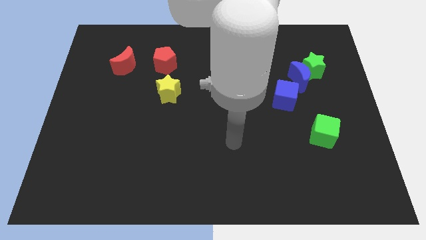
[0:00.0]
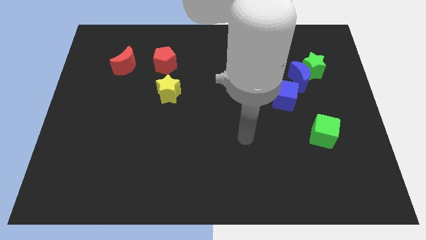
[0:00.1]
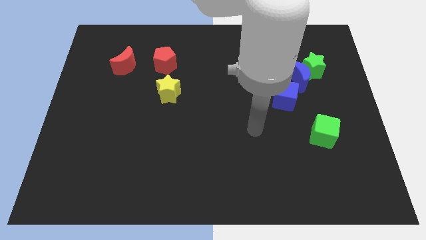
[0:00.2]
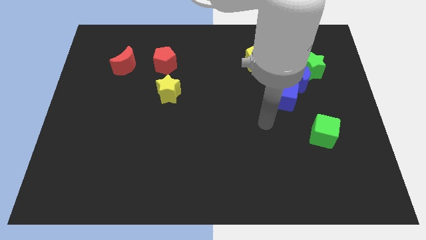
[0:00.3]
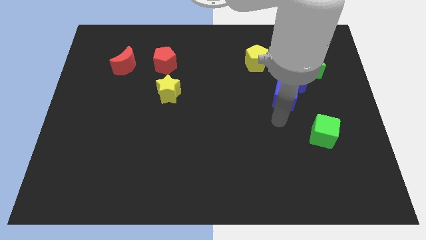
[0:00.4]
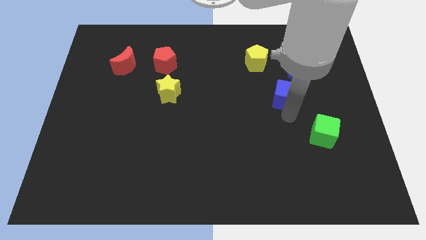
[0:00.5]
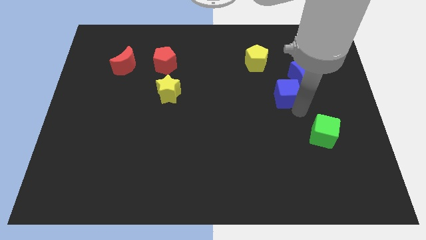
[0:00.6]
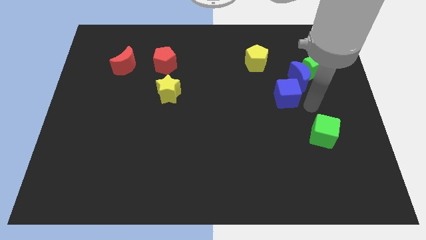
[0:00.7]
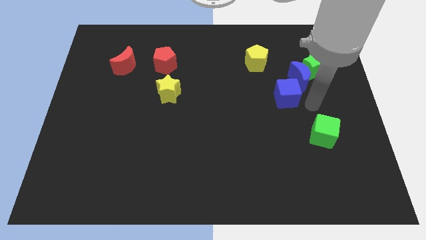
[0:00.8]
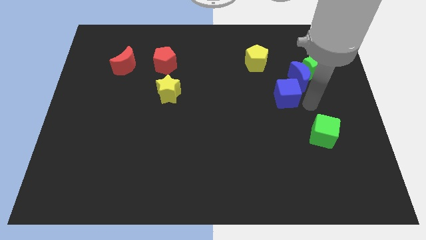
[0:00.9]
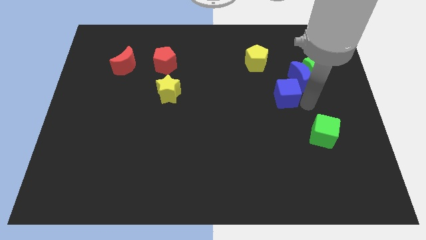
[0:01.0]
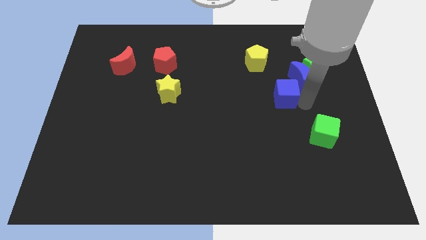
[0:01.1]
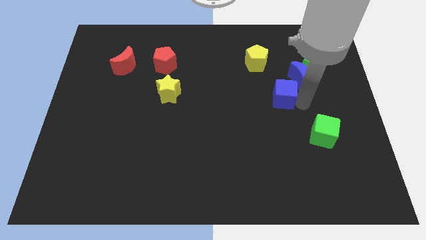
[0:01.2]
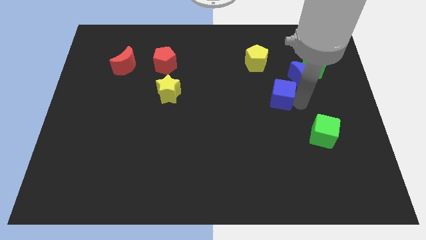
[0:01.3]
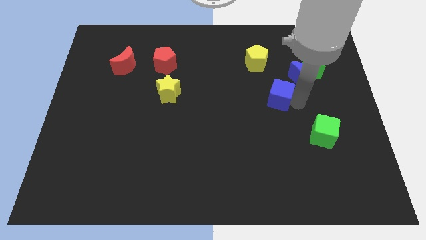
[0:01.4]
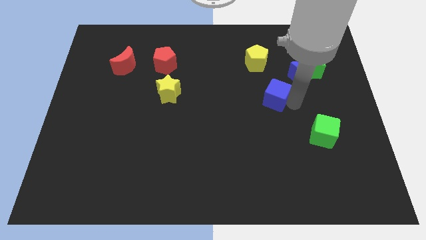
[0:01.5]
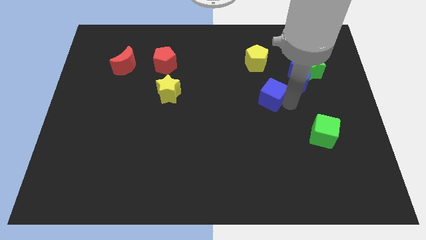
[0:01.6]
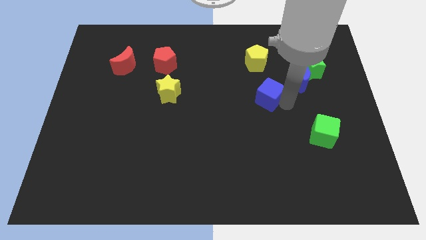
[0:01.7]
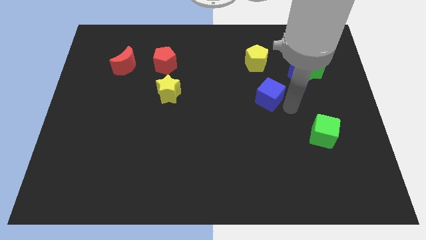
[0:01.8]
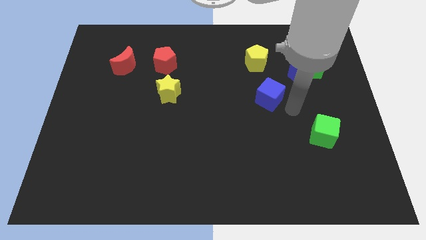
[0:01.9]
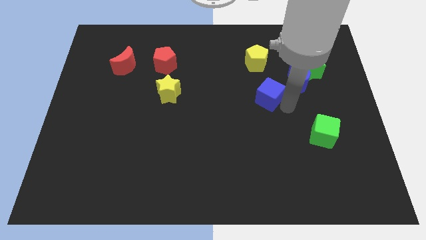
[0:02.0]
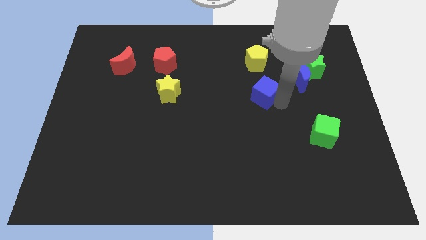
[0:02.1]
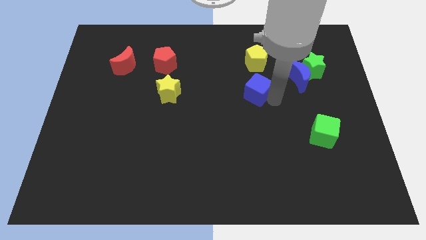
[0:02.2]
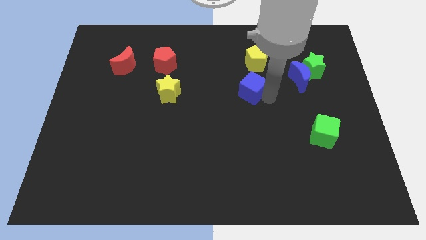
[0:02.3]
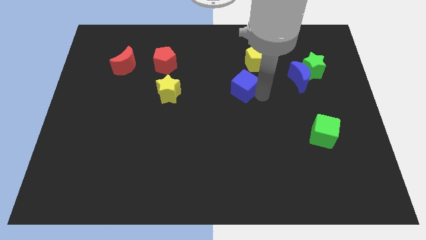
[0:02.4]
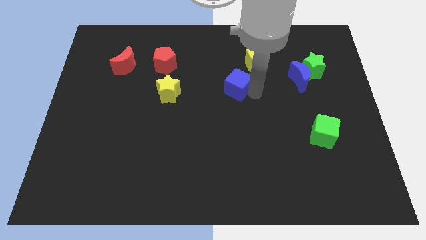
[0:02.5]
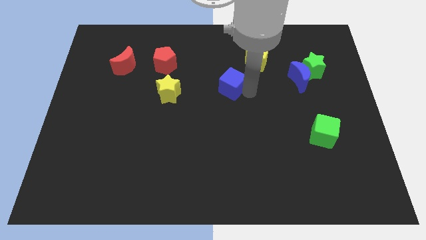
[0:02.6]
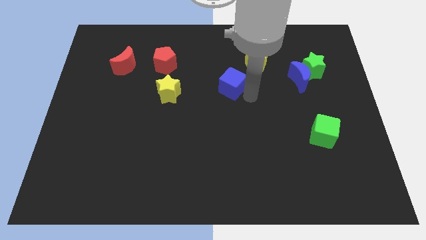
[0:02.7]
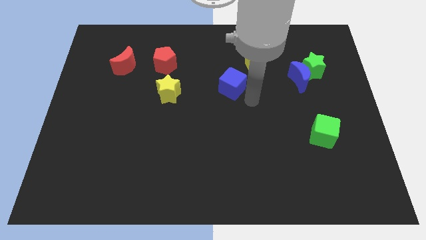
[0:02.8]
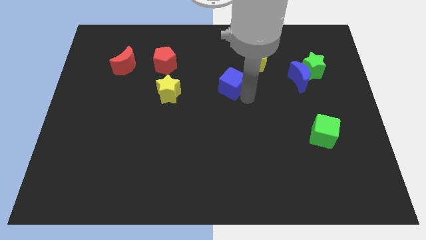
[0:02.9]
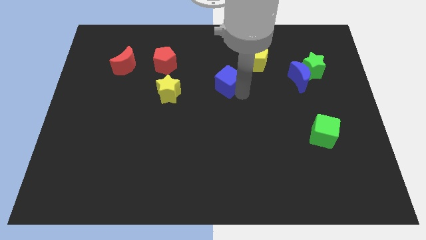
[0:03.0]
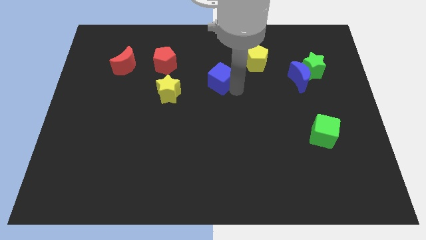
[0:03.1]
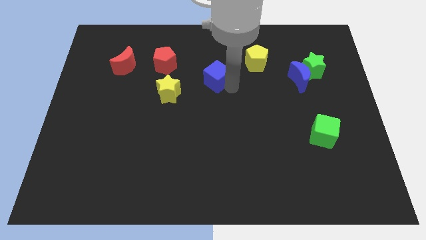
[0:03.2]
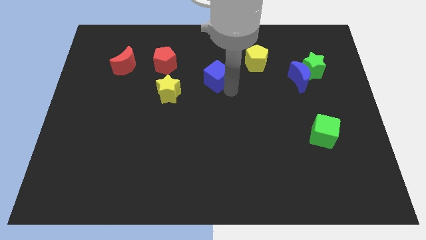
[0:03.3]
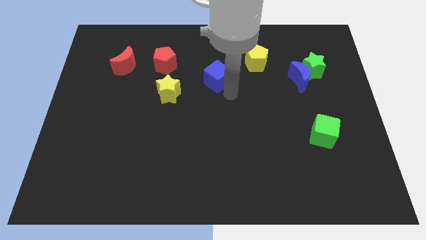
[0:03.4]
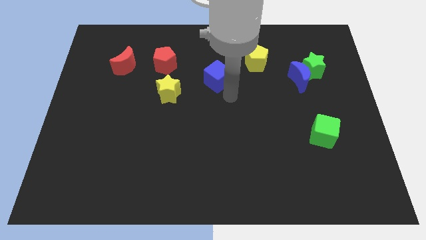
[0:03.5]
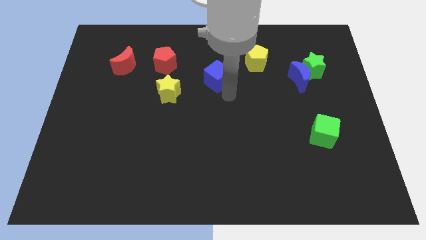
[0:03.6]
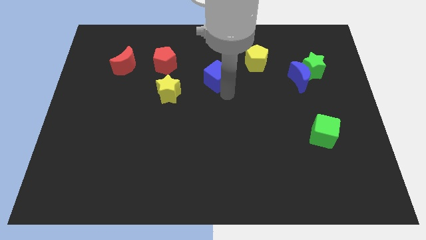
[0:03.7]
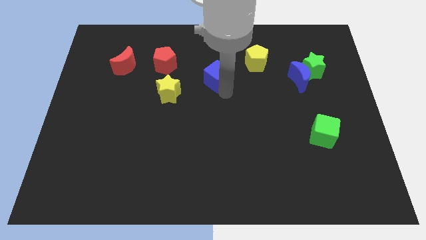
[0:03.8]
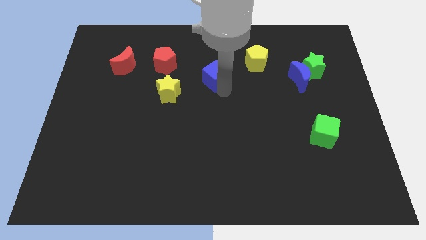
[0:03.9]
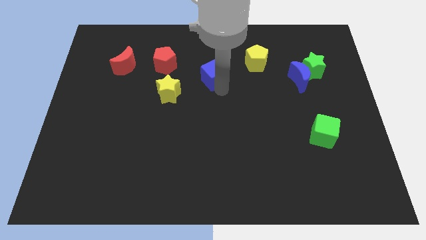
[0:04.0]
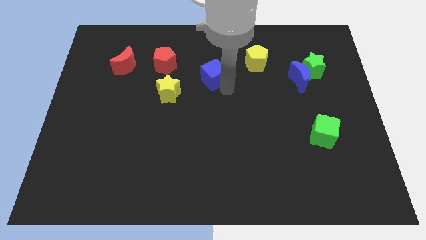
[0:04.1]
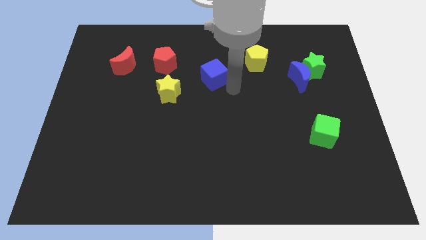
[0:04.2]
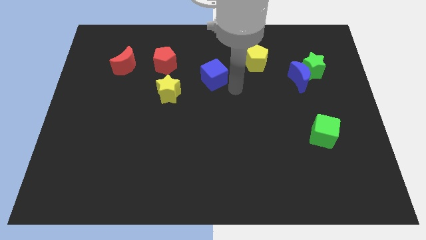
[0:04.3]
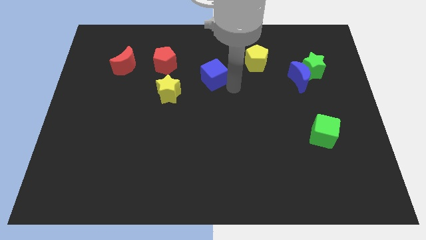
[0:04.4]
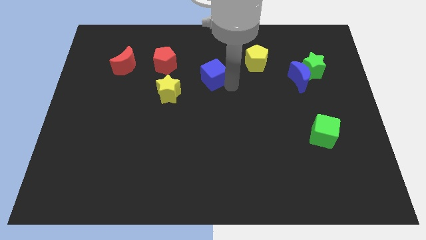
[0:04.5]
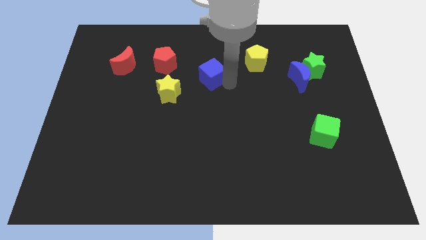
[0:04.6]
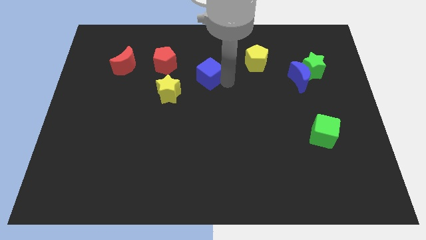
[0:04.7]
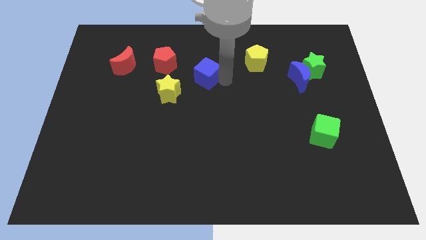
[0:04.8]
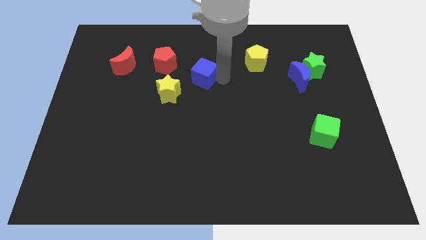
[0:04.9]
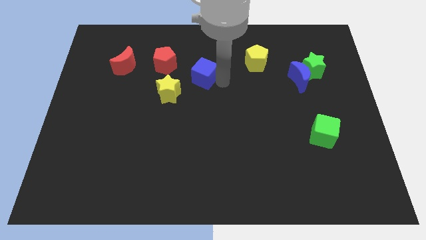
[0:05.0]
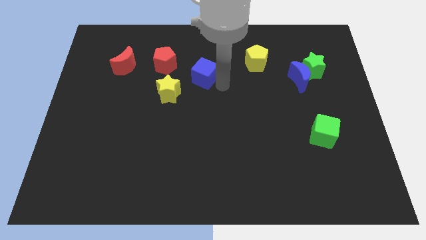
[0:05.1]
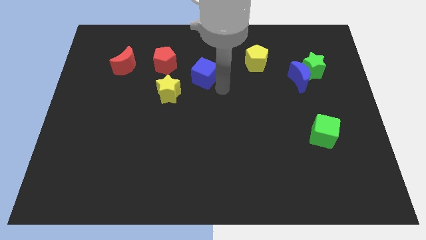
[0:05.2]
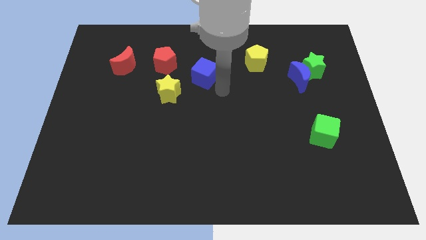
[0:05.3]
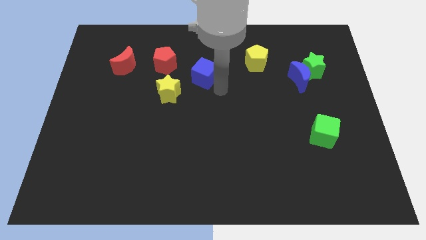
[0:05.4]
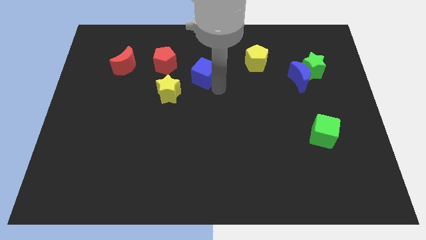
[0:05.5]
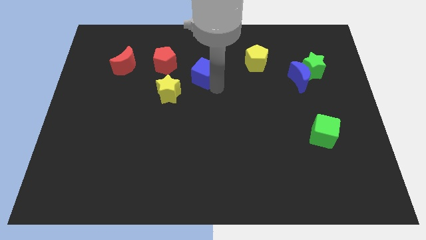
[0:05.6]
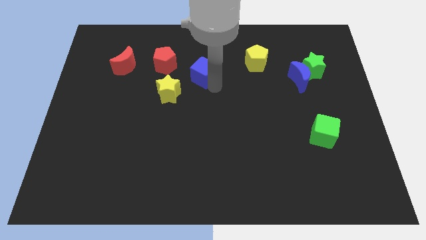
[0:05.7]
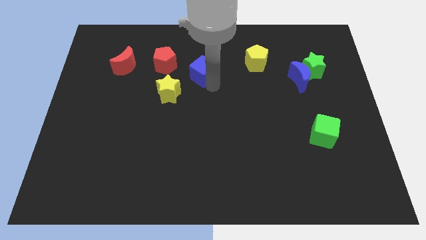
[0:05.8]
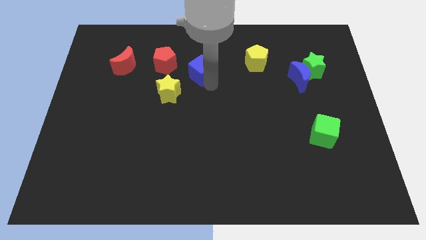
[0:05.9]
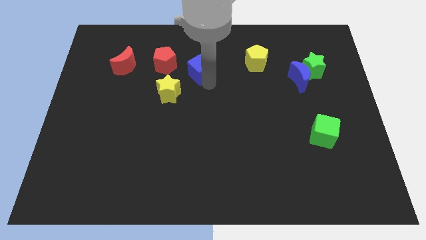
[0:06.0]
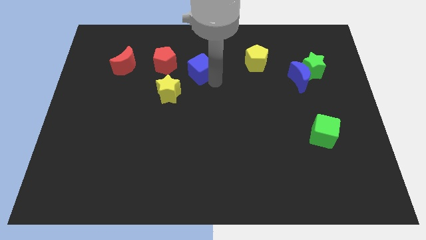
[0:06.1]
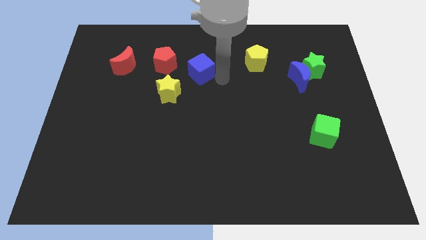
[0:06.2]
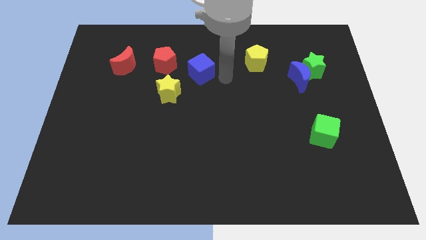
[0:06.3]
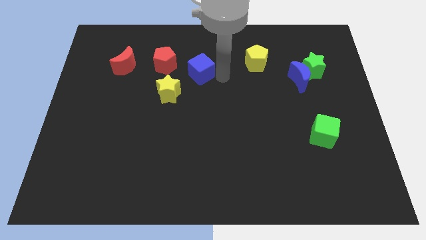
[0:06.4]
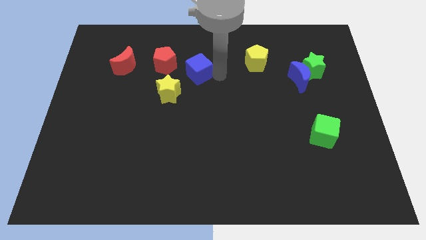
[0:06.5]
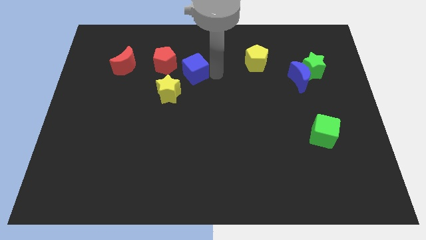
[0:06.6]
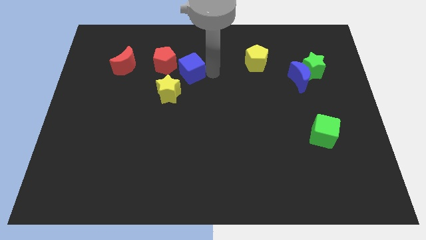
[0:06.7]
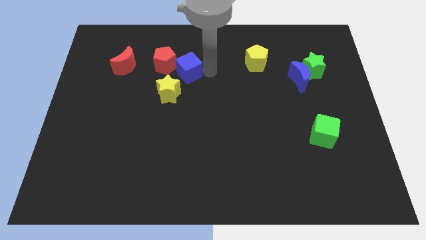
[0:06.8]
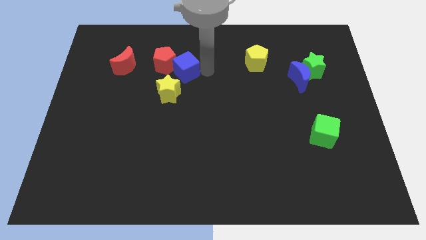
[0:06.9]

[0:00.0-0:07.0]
move the blue cube close to the red pentagon

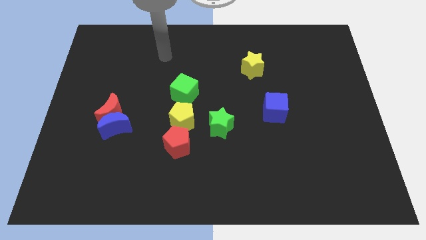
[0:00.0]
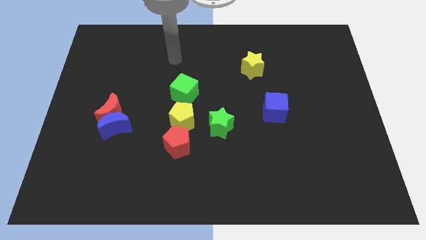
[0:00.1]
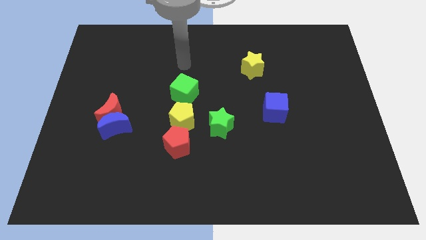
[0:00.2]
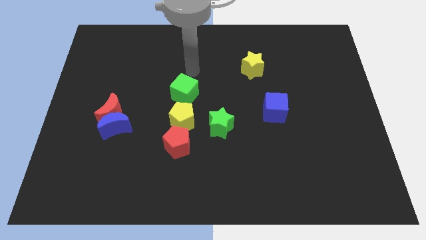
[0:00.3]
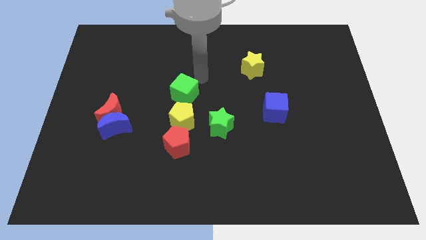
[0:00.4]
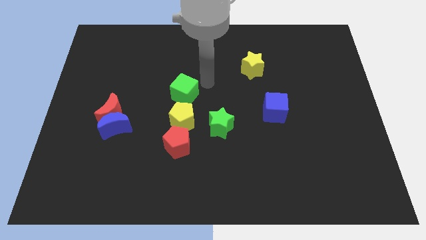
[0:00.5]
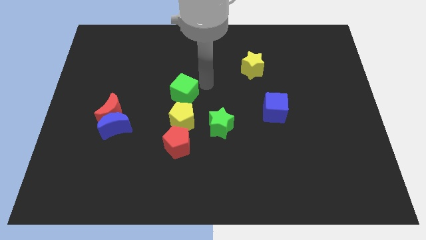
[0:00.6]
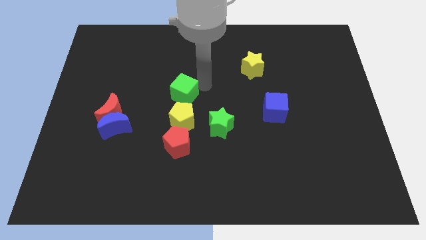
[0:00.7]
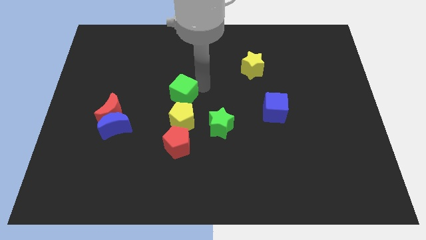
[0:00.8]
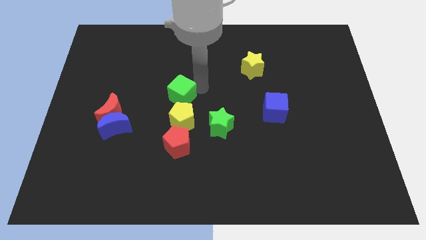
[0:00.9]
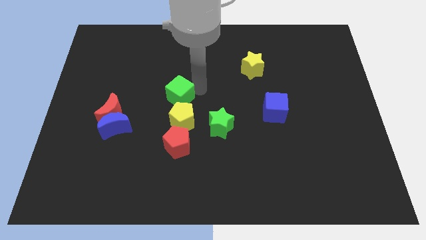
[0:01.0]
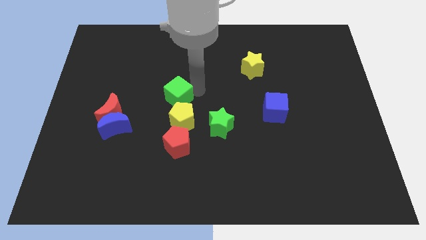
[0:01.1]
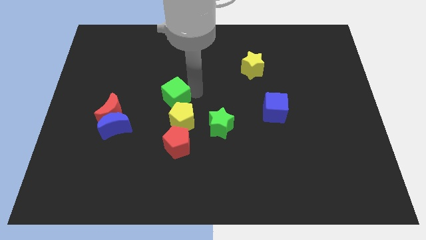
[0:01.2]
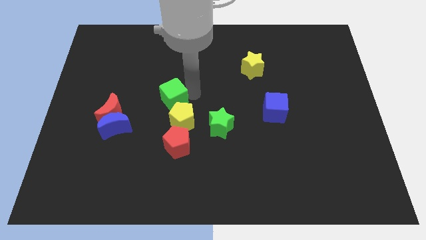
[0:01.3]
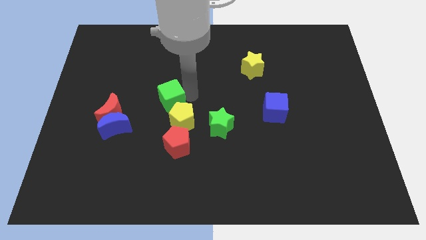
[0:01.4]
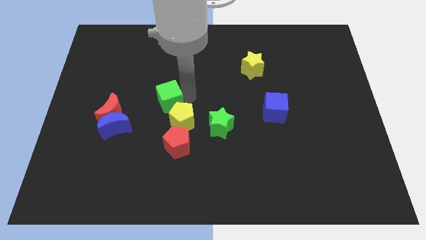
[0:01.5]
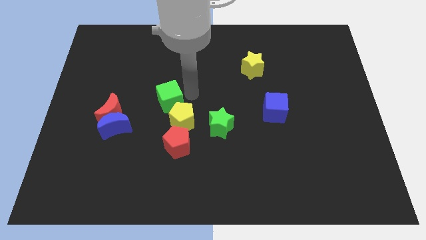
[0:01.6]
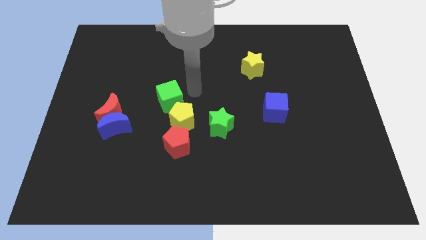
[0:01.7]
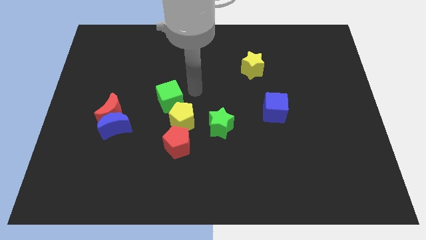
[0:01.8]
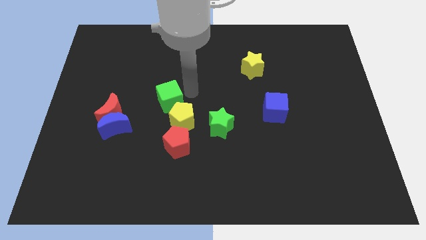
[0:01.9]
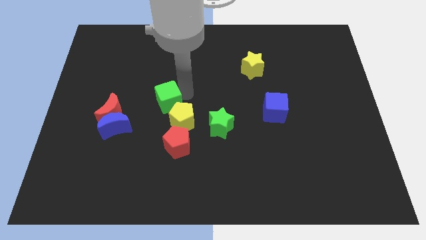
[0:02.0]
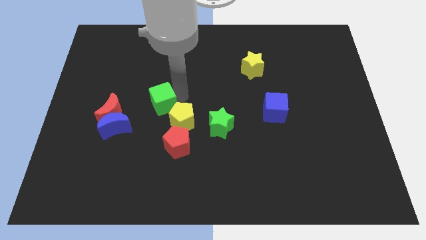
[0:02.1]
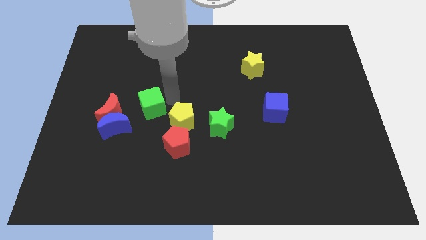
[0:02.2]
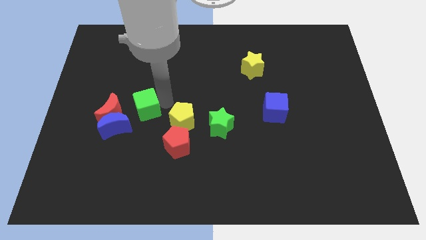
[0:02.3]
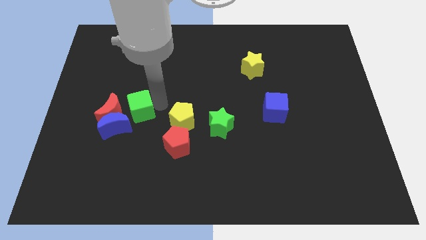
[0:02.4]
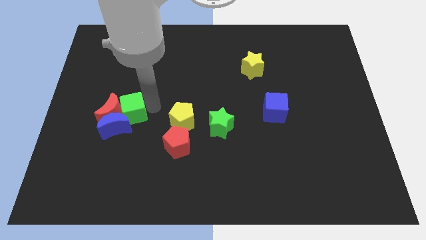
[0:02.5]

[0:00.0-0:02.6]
slide the green cube next to the red moon
